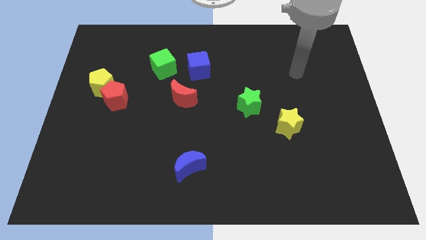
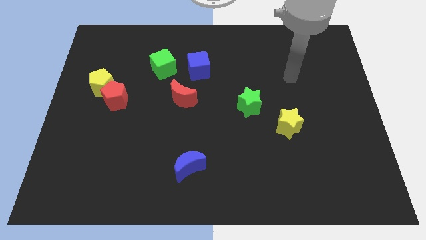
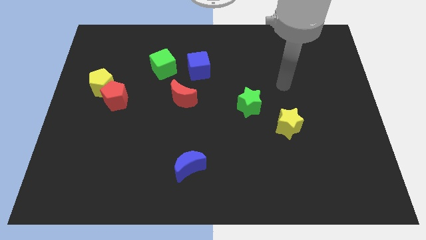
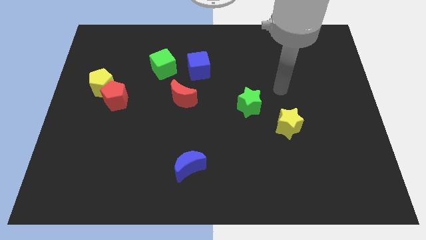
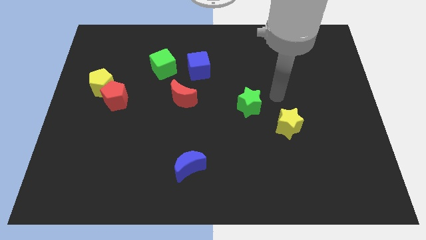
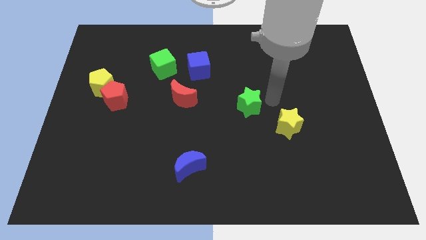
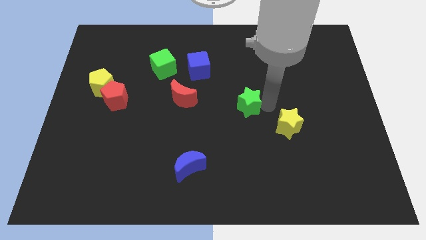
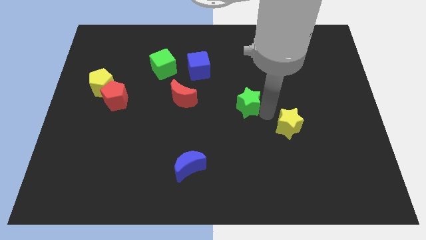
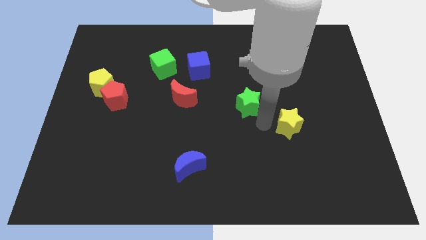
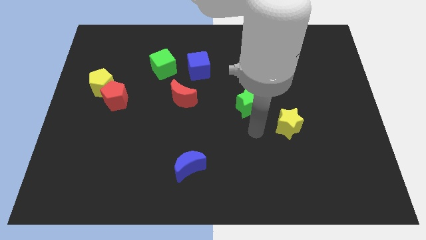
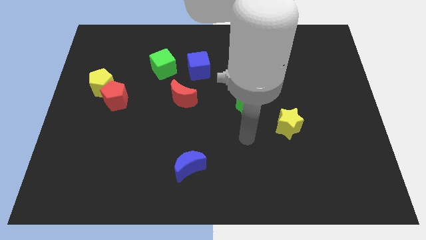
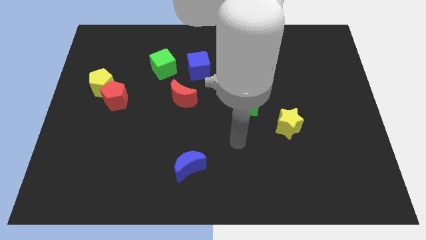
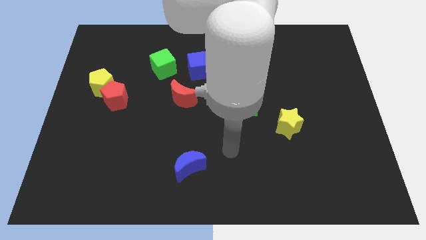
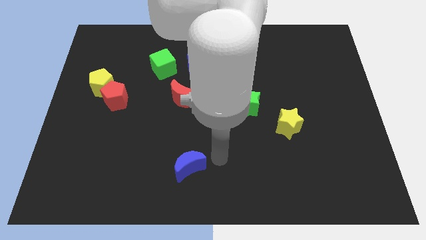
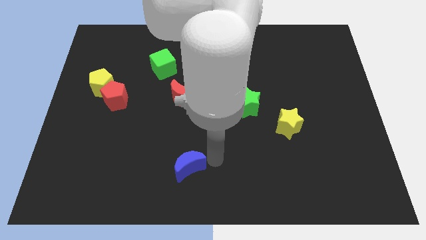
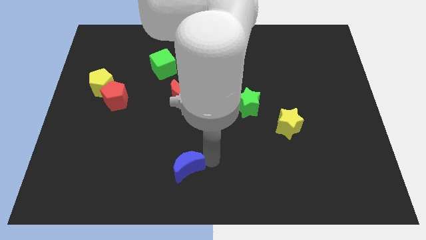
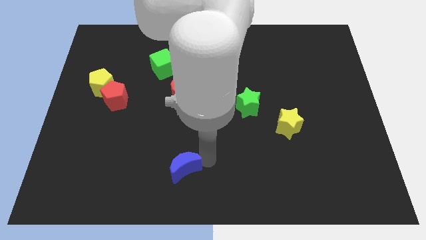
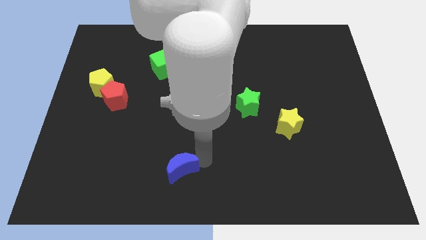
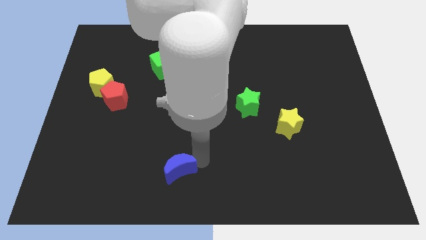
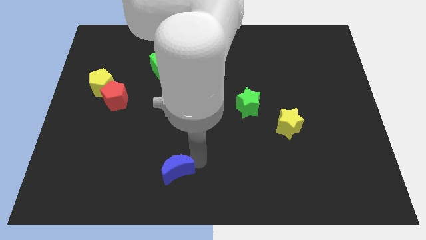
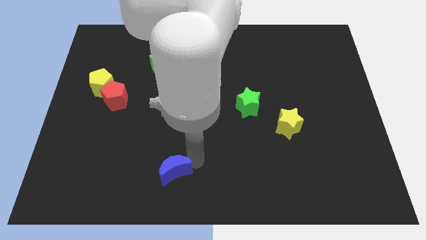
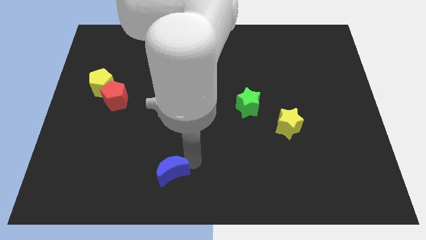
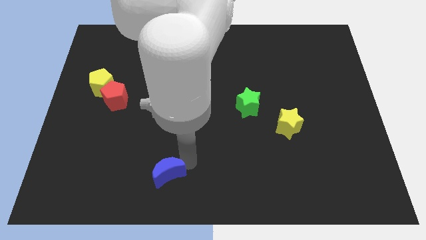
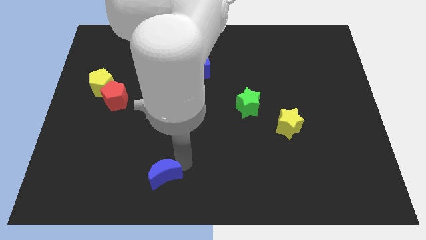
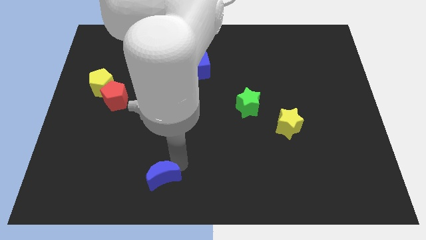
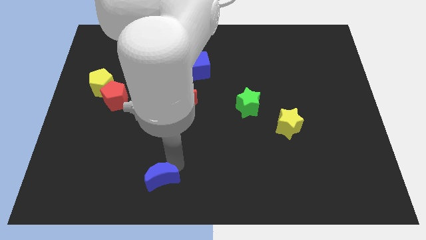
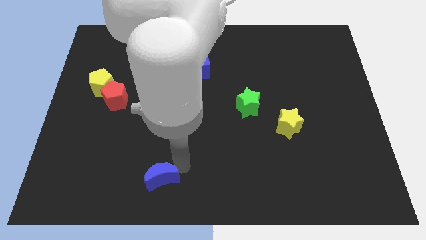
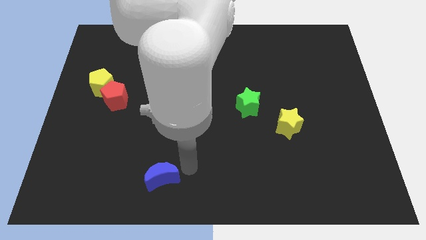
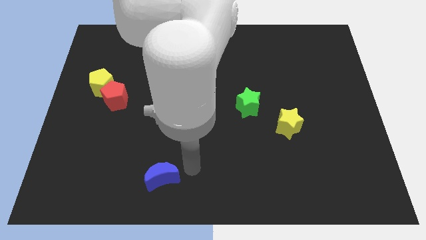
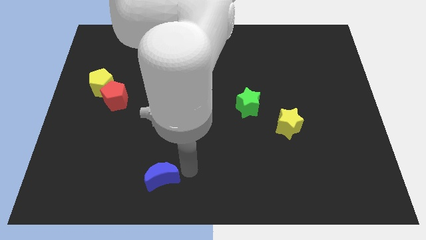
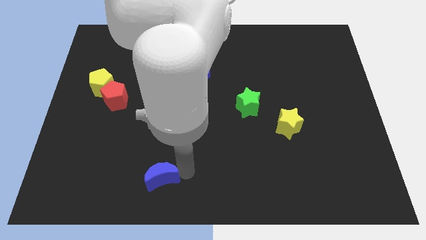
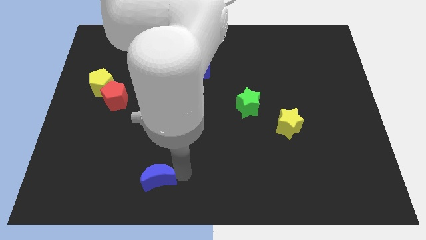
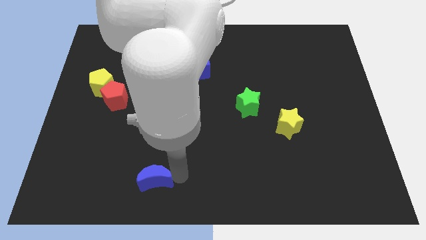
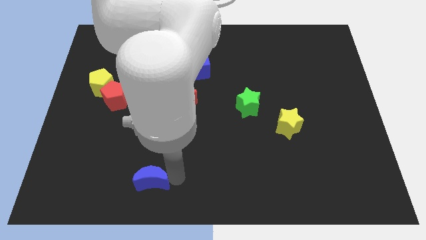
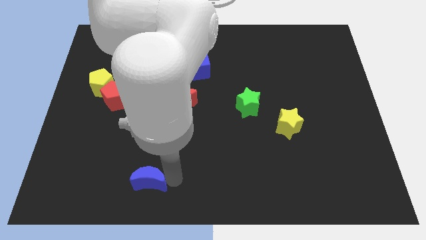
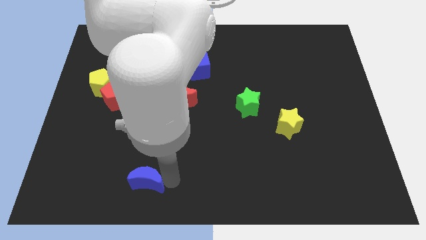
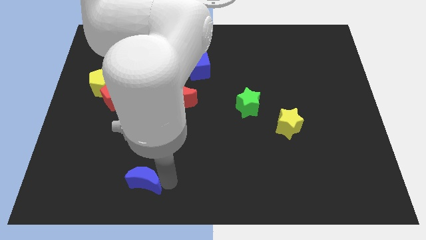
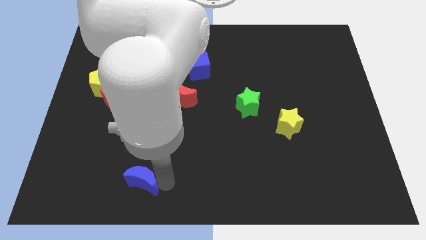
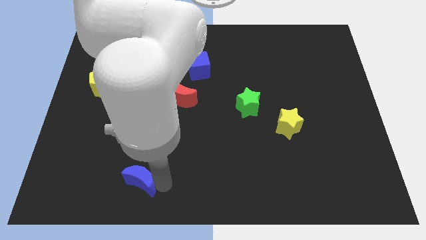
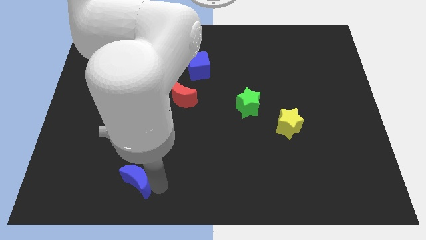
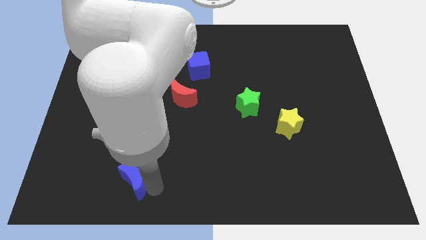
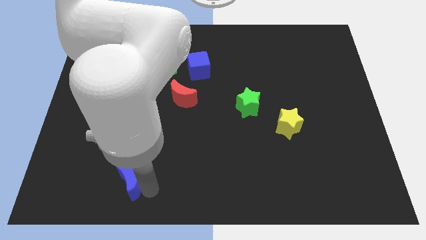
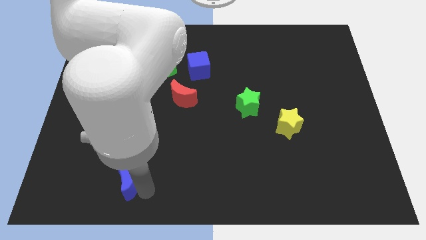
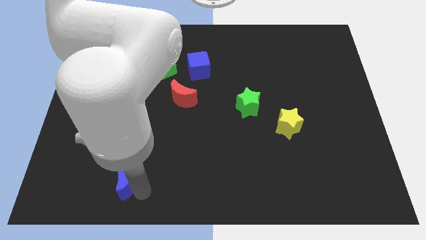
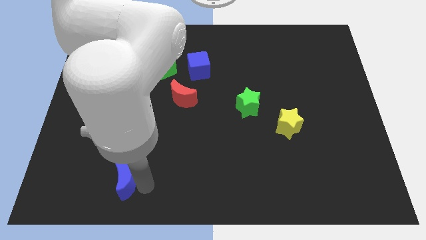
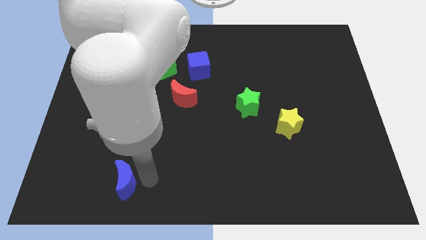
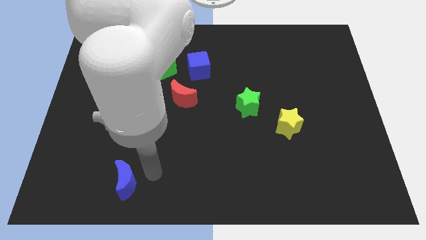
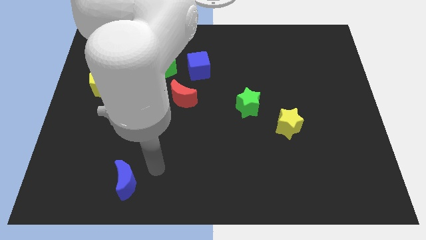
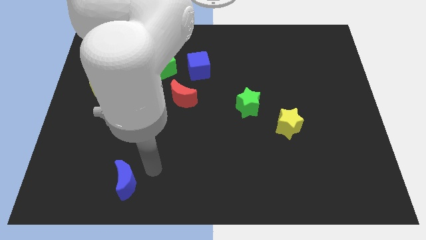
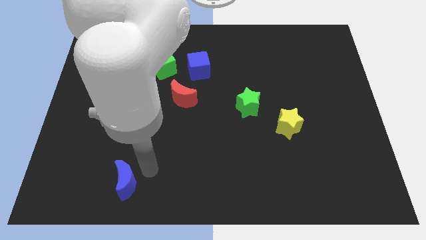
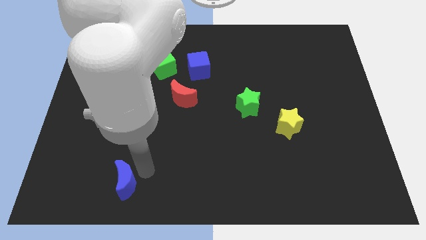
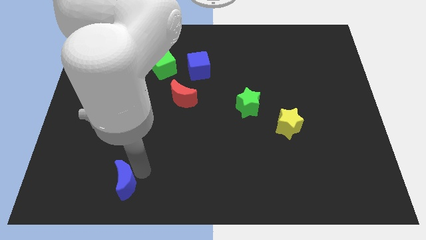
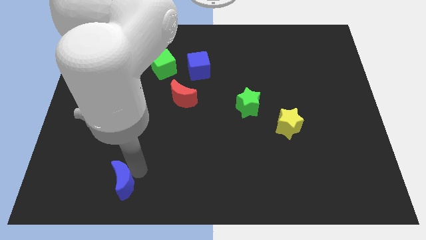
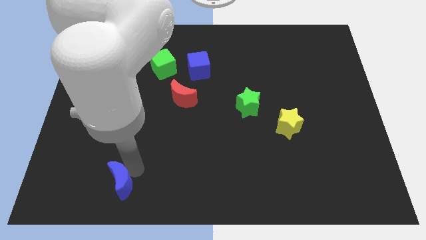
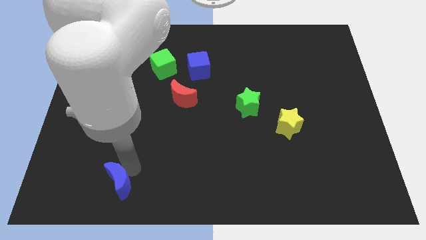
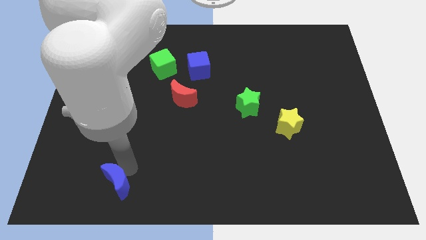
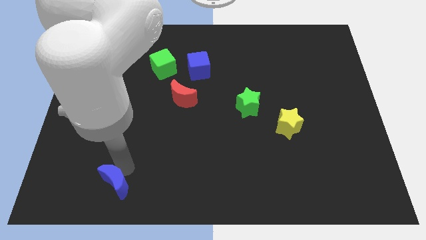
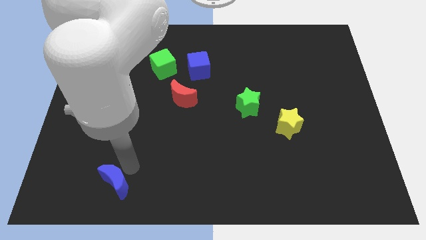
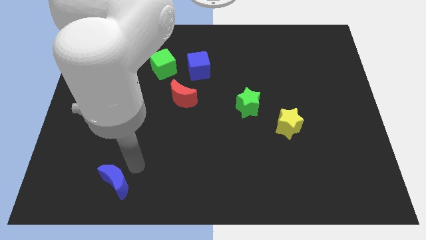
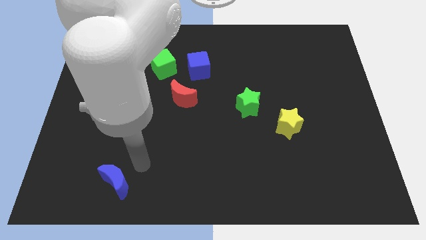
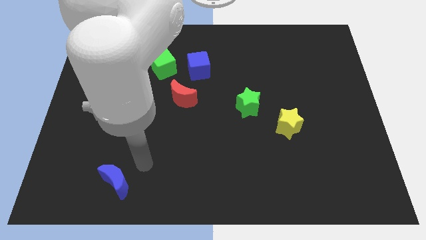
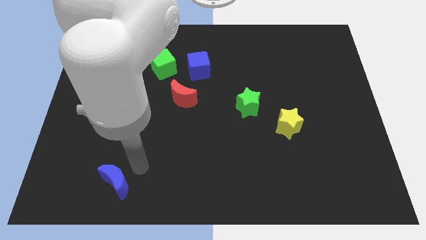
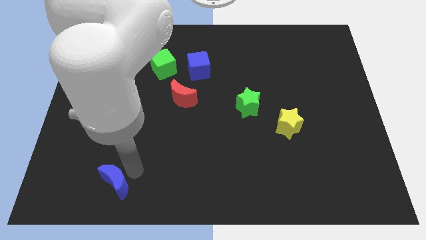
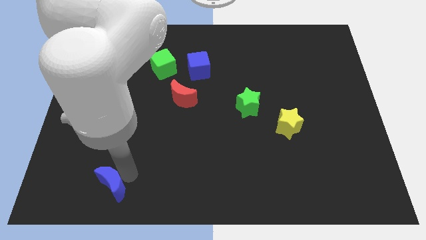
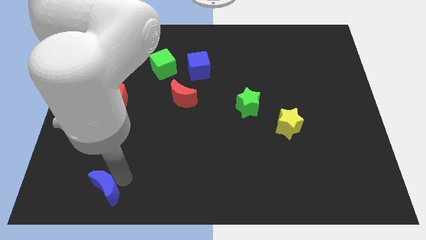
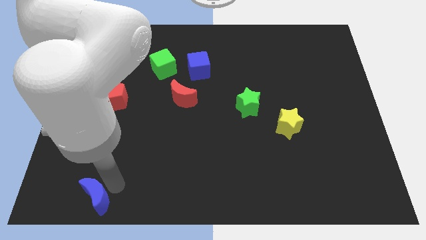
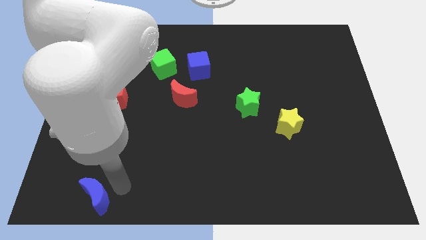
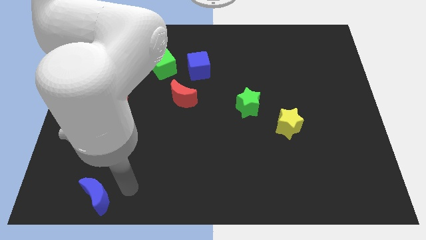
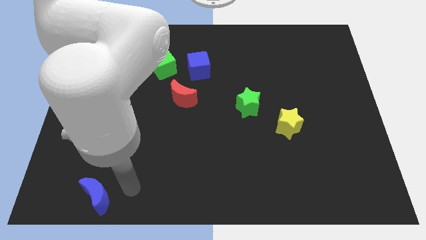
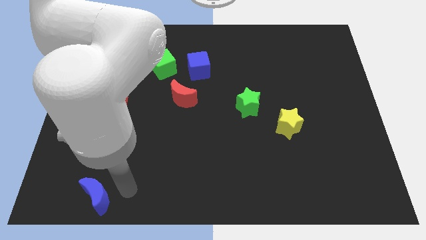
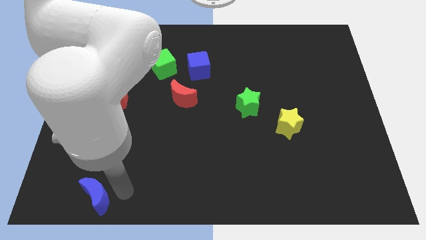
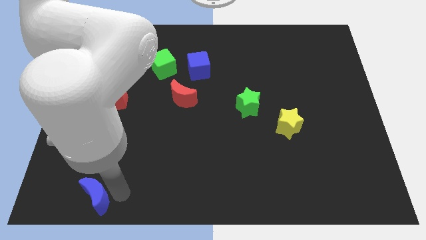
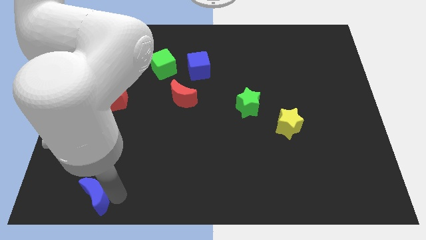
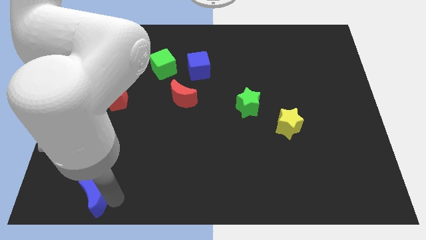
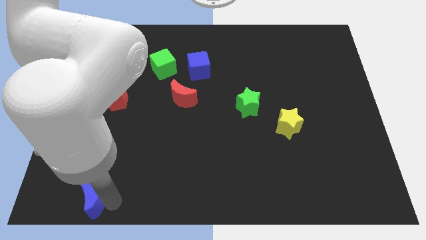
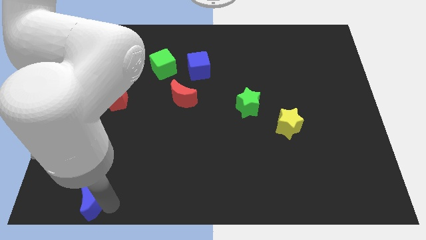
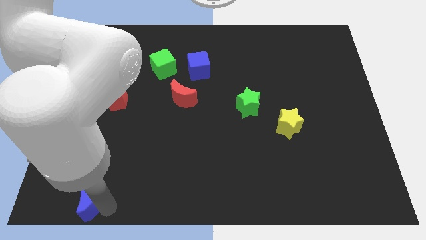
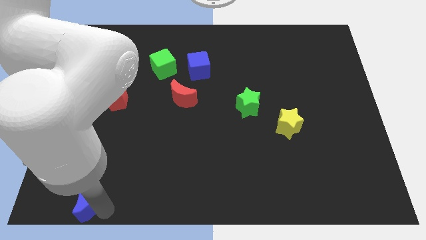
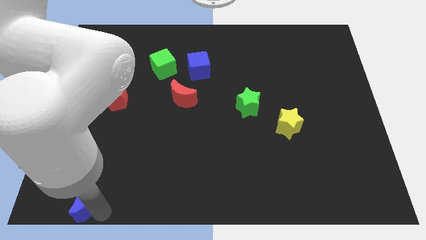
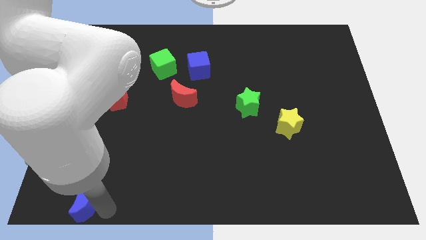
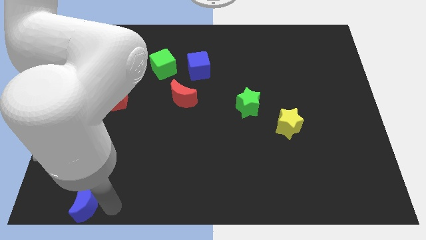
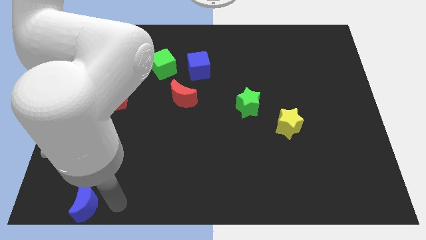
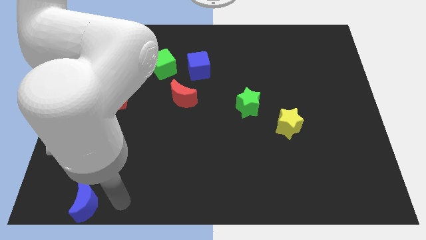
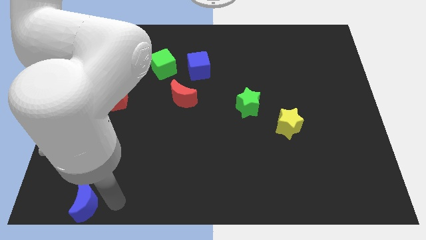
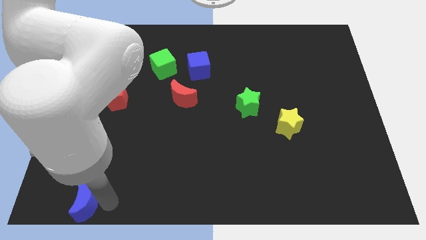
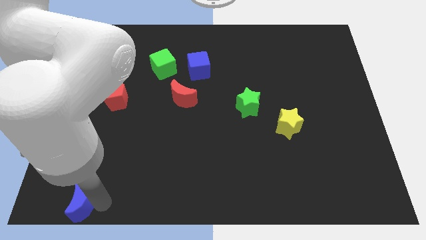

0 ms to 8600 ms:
put the blue moon to the bottom left
